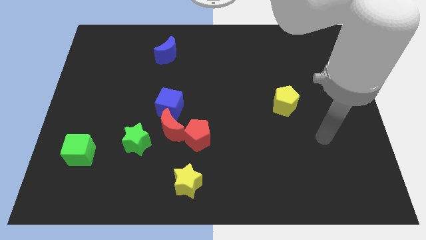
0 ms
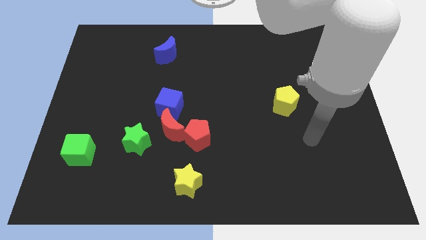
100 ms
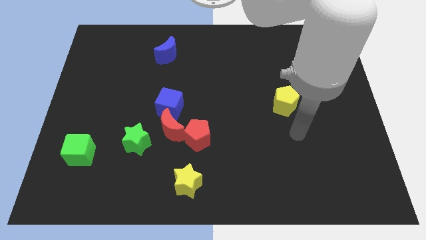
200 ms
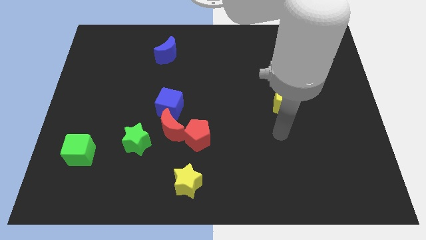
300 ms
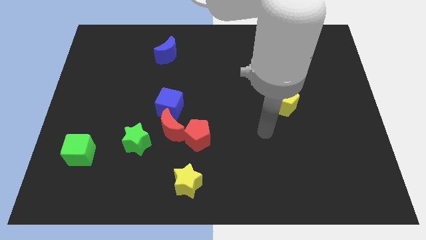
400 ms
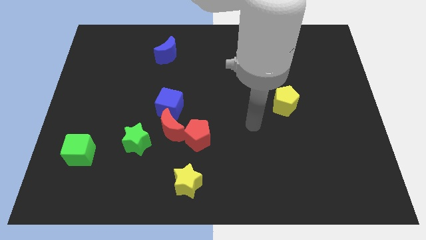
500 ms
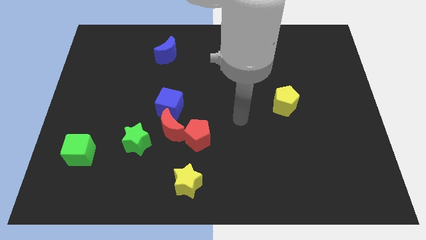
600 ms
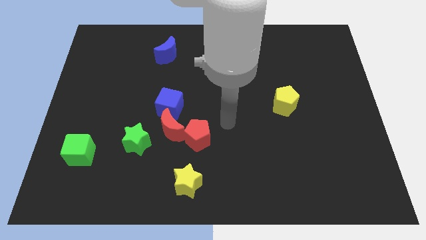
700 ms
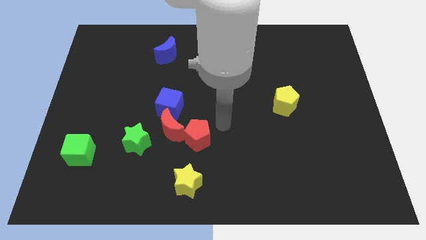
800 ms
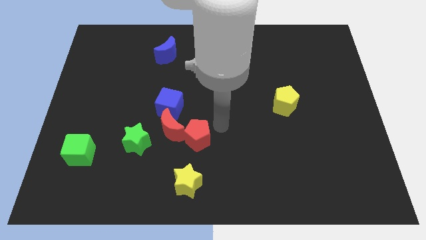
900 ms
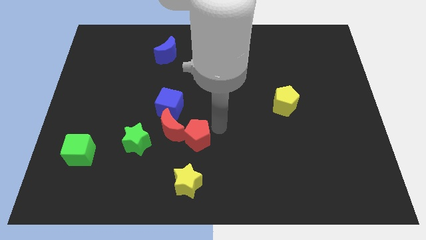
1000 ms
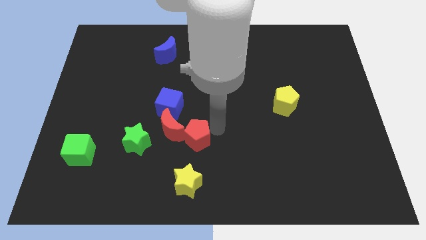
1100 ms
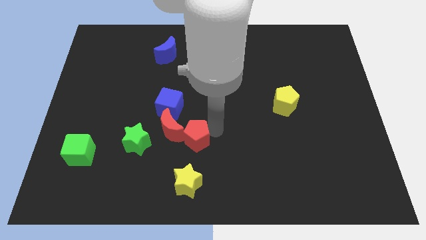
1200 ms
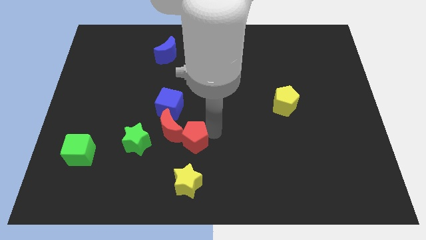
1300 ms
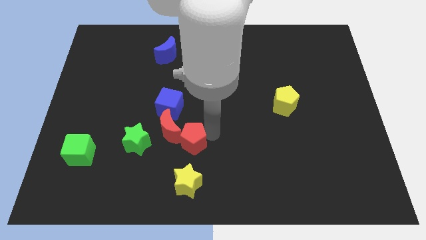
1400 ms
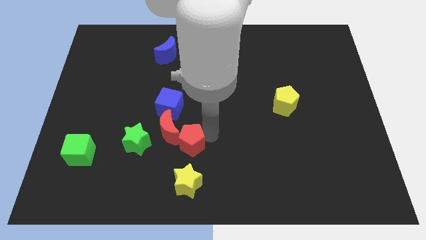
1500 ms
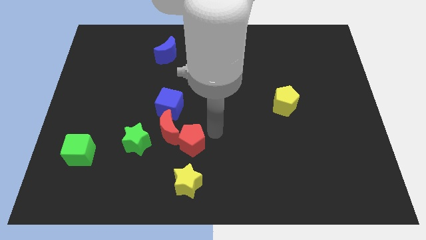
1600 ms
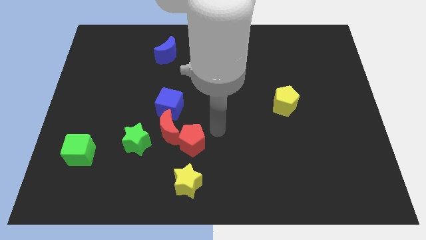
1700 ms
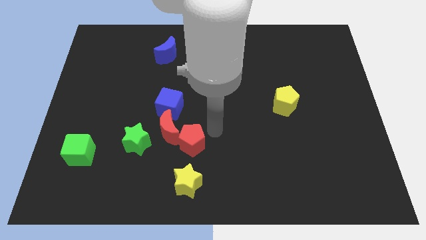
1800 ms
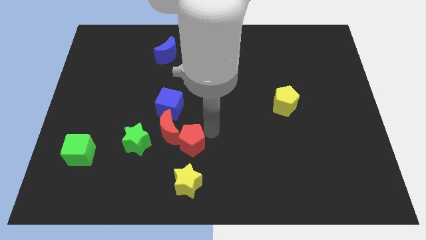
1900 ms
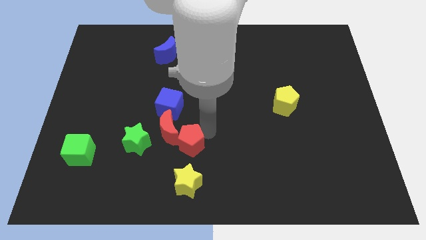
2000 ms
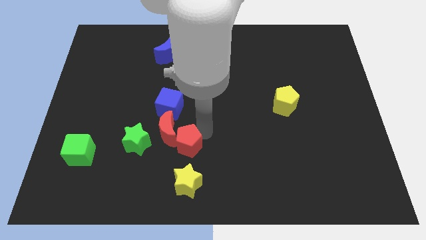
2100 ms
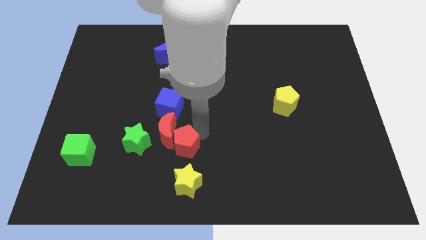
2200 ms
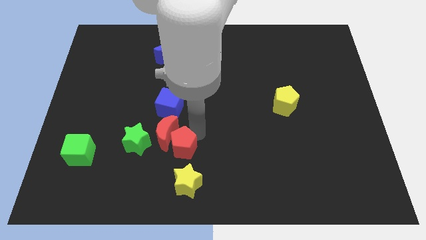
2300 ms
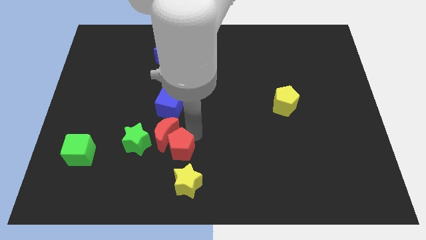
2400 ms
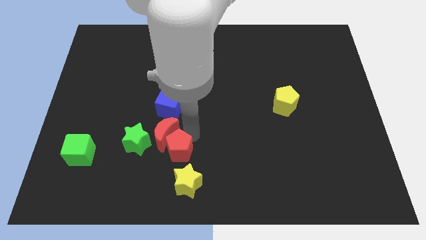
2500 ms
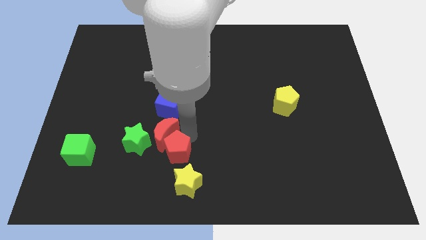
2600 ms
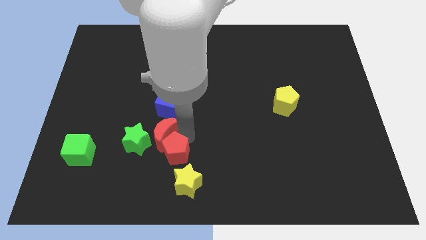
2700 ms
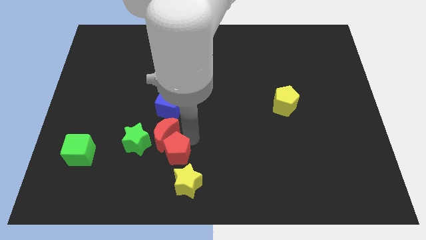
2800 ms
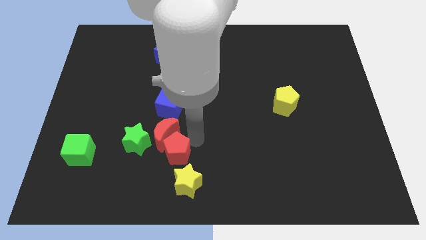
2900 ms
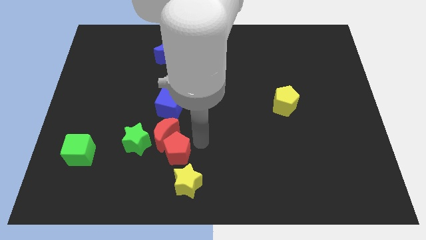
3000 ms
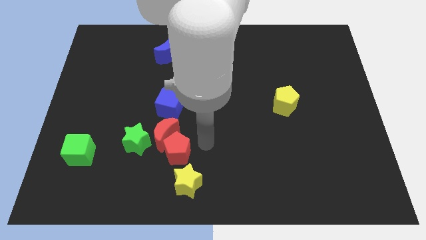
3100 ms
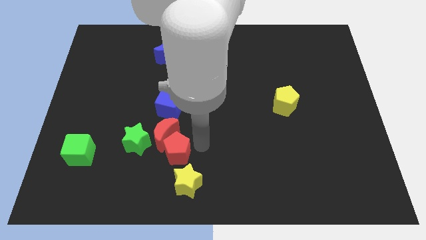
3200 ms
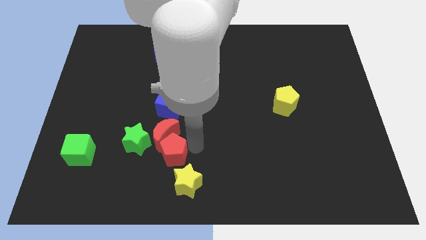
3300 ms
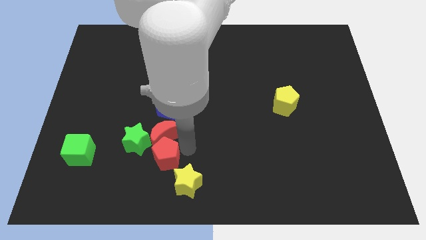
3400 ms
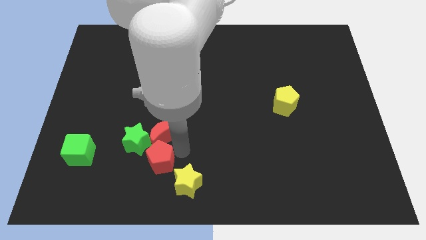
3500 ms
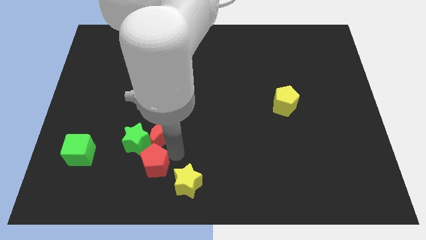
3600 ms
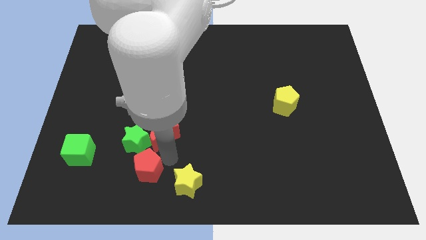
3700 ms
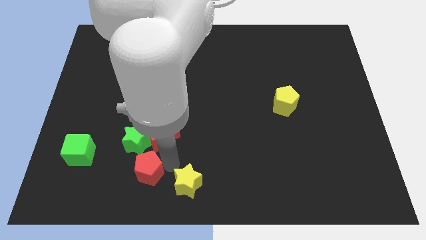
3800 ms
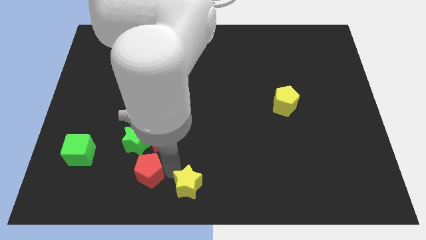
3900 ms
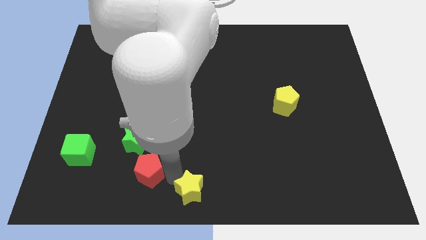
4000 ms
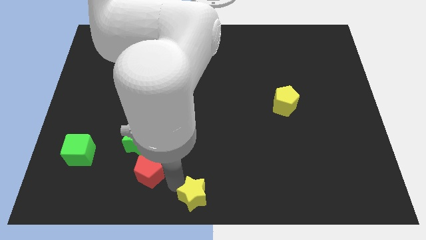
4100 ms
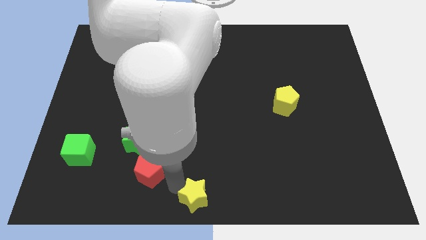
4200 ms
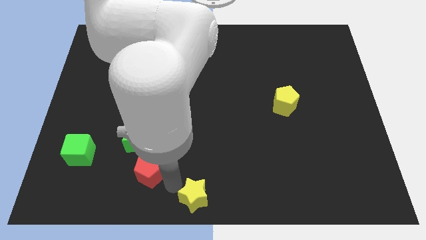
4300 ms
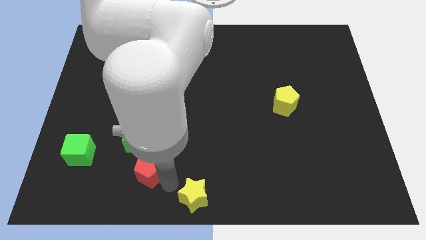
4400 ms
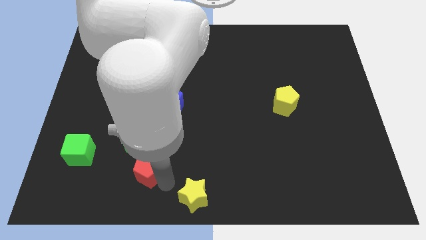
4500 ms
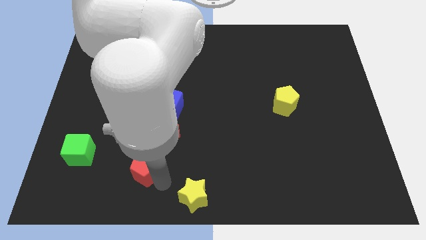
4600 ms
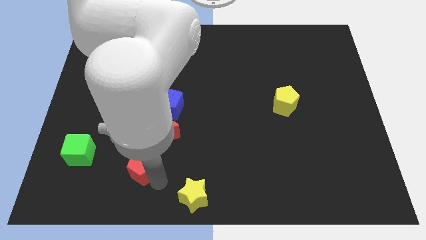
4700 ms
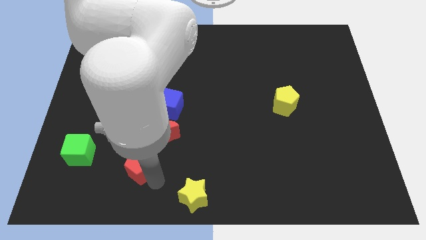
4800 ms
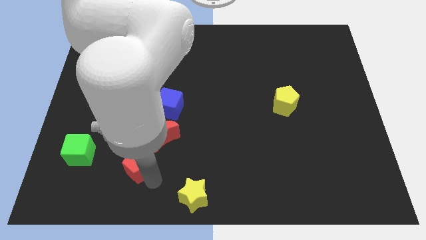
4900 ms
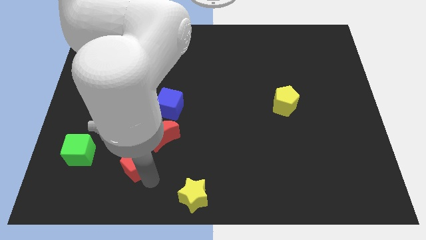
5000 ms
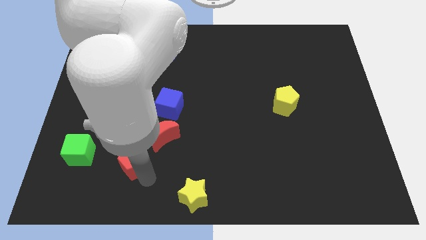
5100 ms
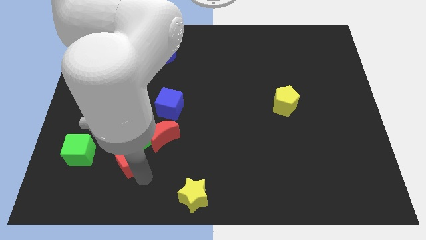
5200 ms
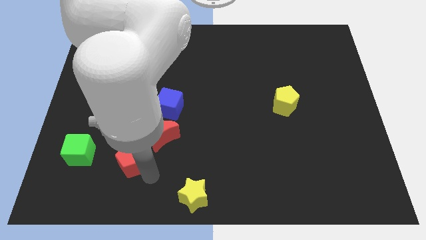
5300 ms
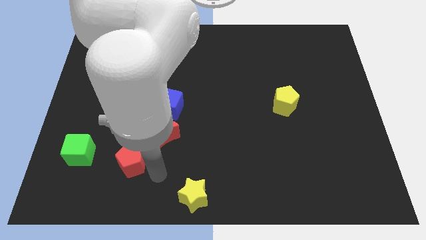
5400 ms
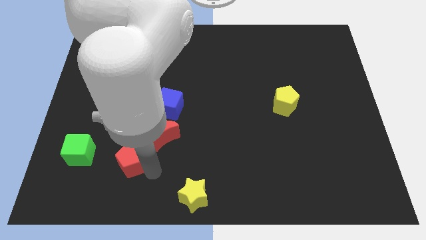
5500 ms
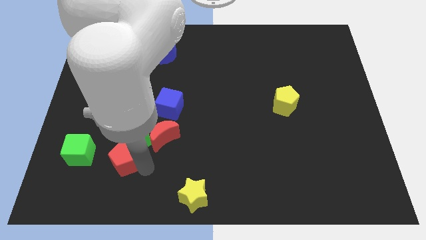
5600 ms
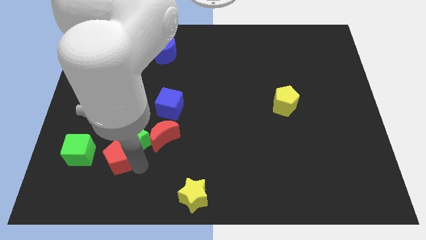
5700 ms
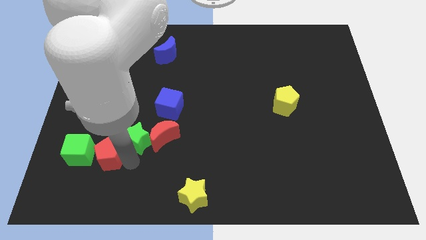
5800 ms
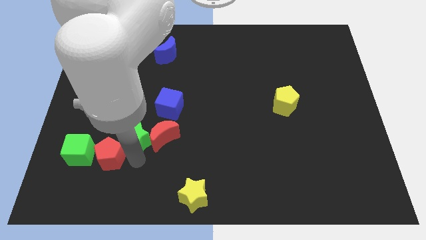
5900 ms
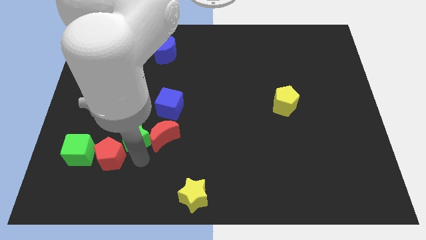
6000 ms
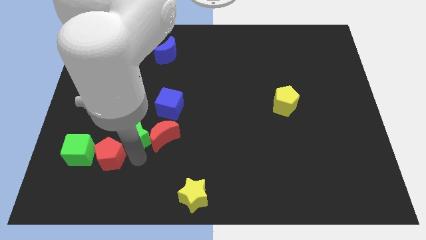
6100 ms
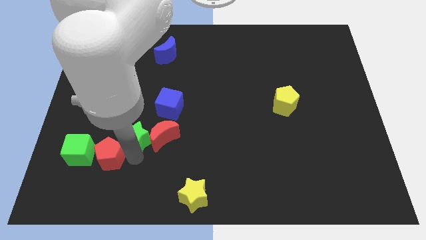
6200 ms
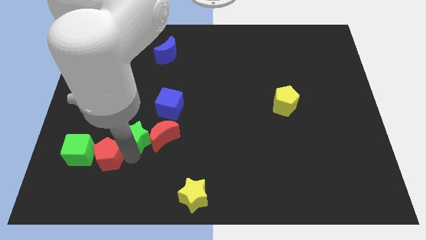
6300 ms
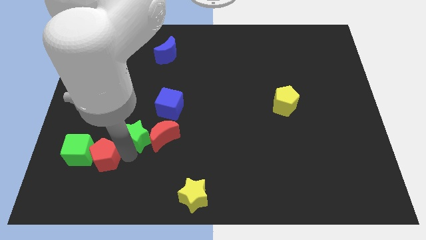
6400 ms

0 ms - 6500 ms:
slide the red pentagon towards the green cube

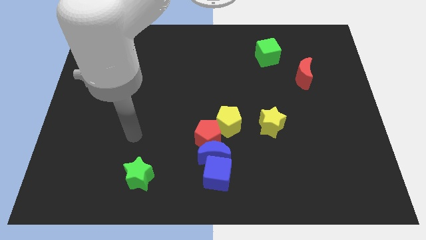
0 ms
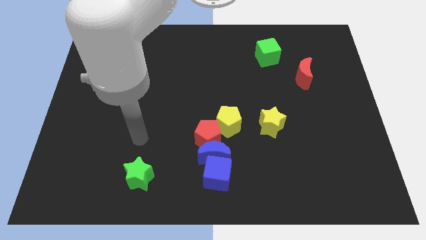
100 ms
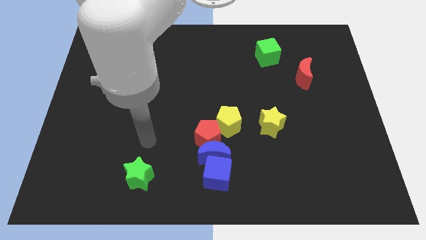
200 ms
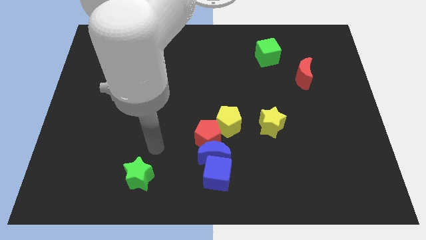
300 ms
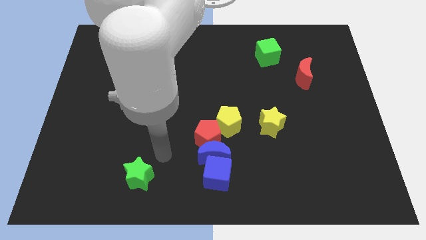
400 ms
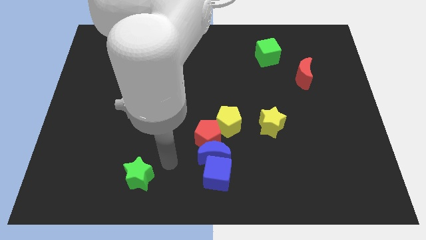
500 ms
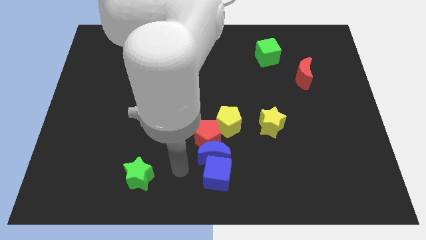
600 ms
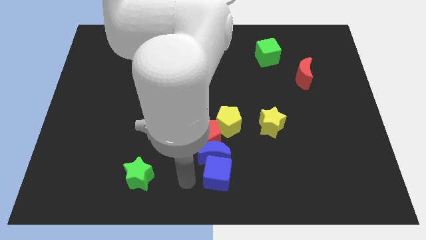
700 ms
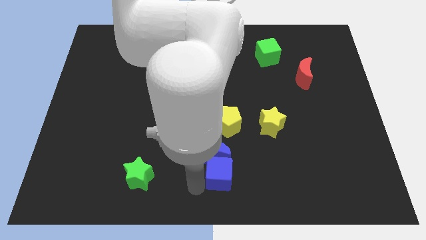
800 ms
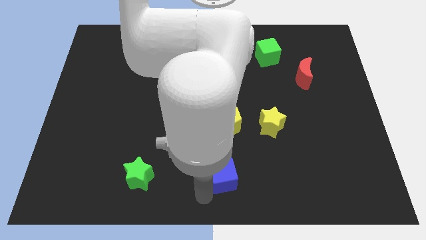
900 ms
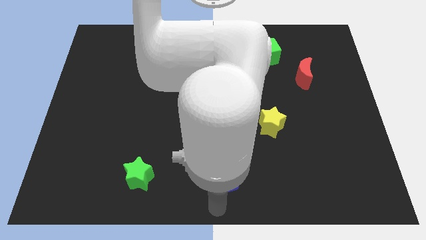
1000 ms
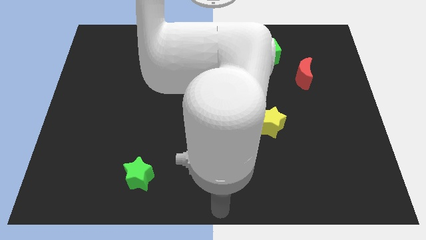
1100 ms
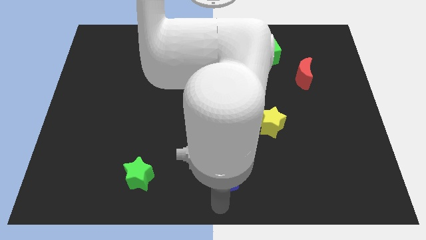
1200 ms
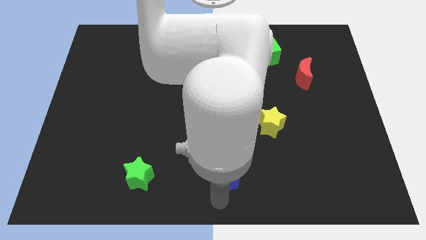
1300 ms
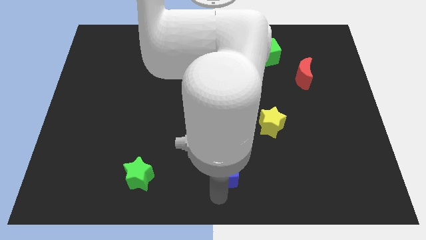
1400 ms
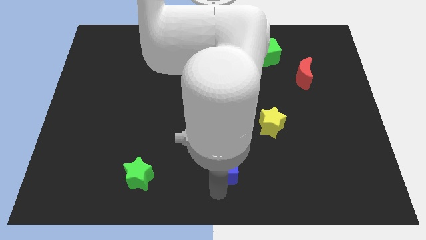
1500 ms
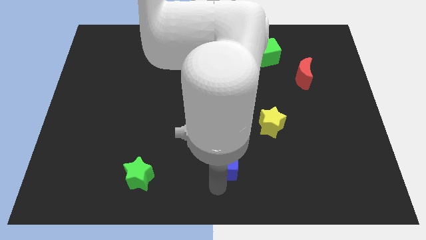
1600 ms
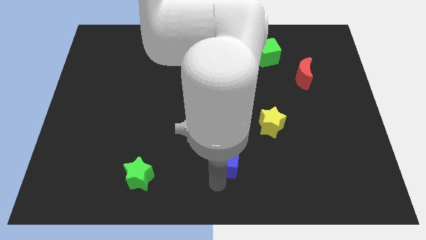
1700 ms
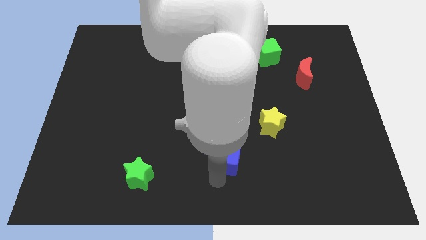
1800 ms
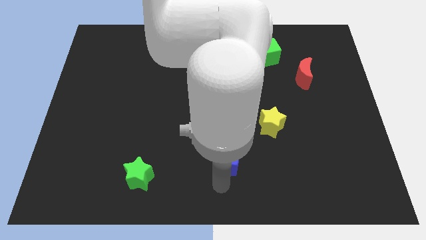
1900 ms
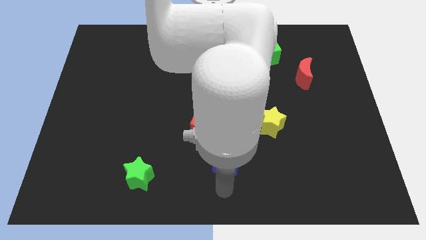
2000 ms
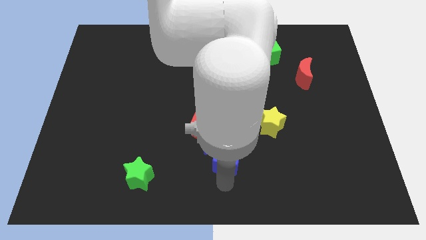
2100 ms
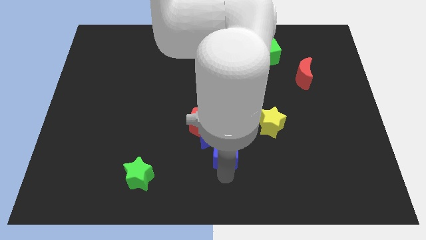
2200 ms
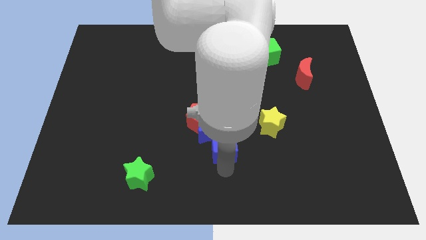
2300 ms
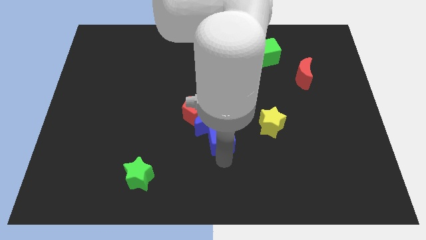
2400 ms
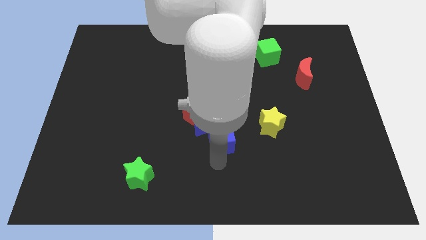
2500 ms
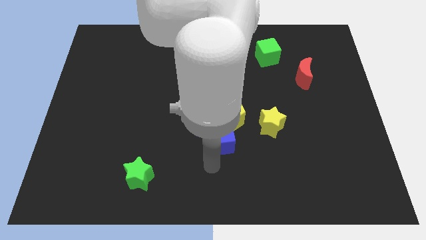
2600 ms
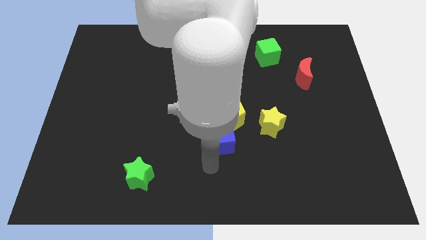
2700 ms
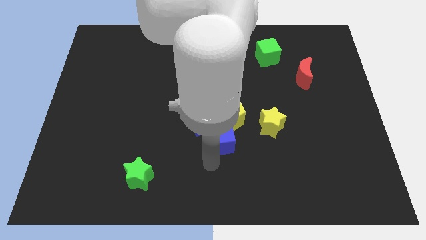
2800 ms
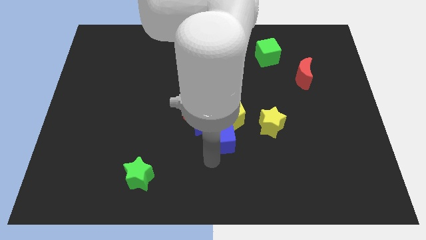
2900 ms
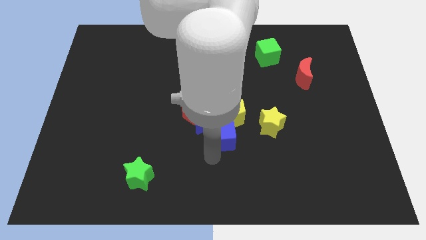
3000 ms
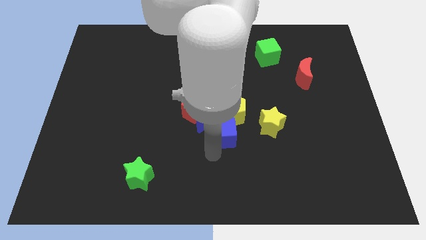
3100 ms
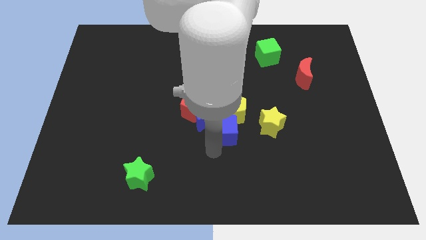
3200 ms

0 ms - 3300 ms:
move the blue cube towards the yellow pentagon
